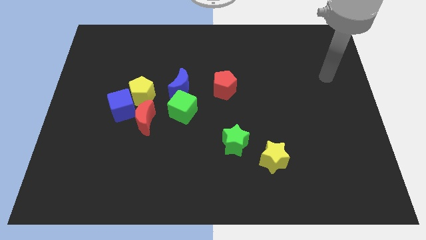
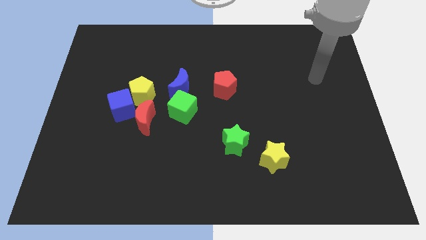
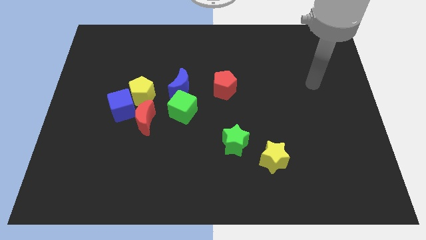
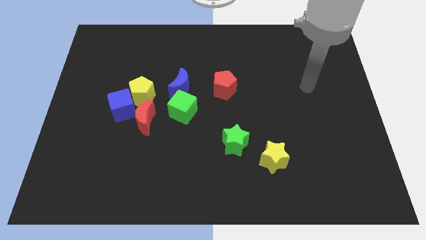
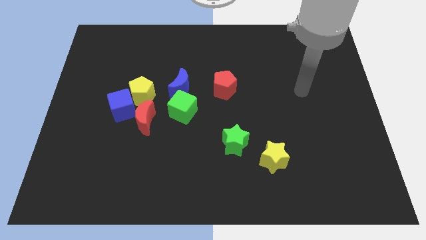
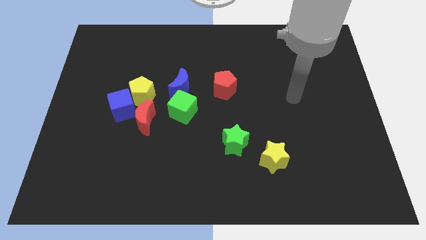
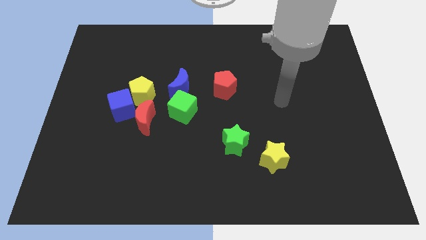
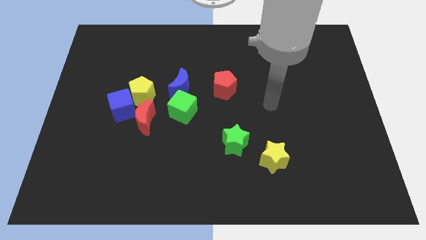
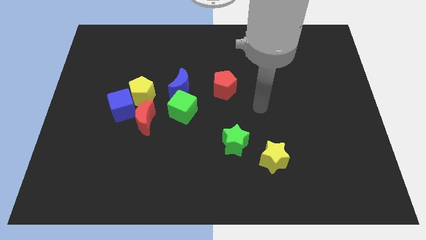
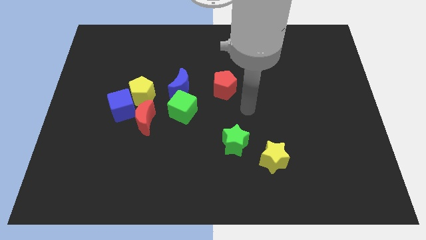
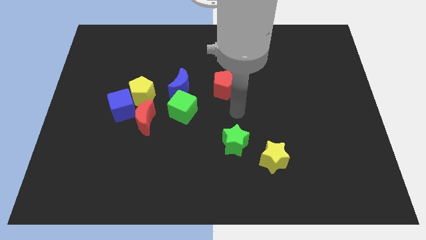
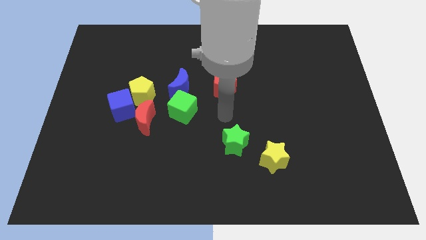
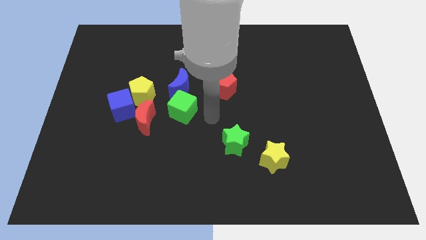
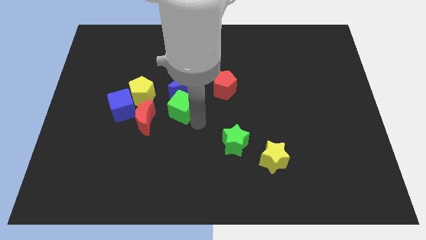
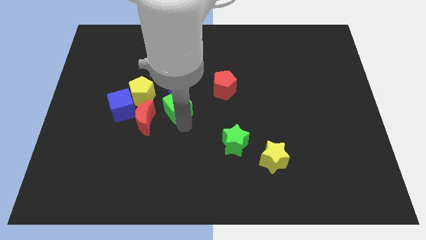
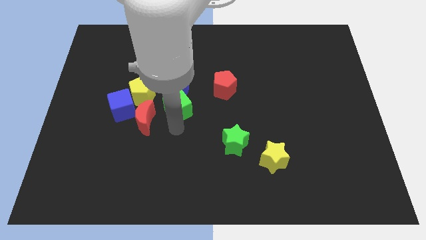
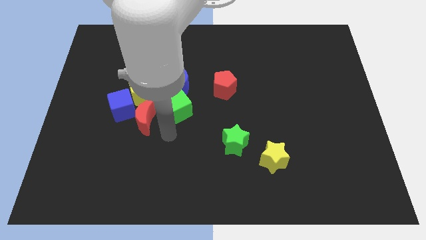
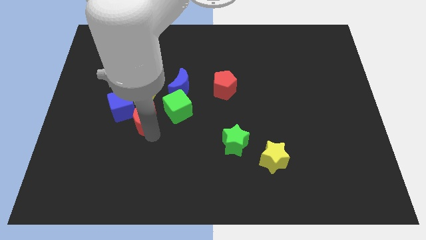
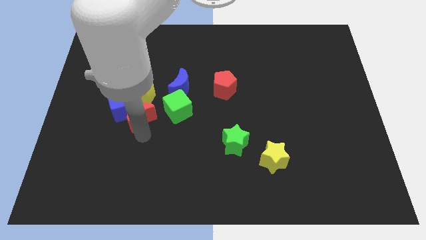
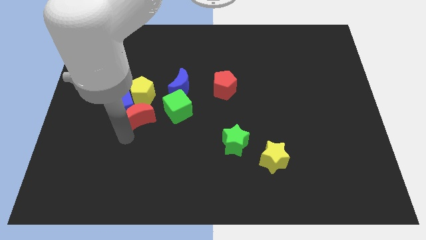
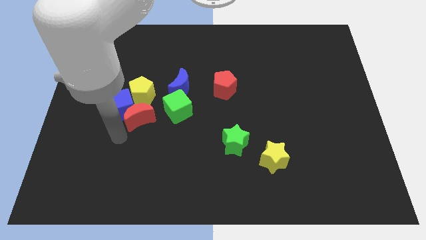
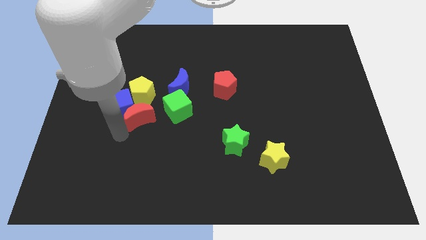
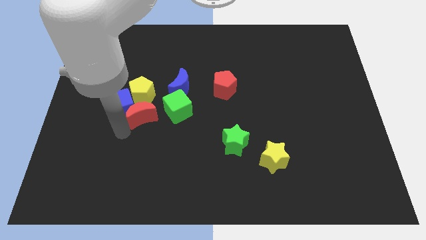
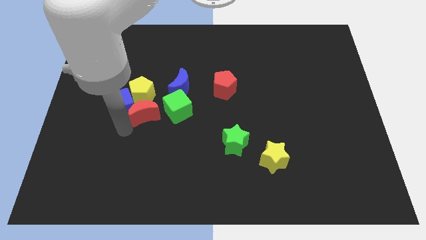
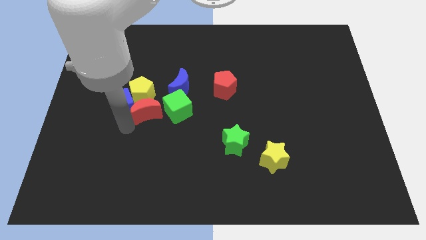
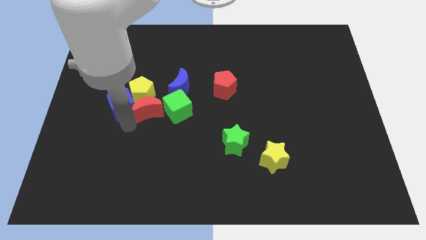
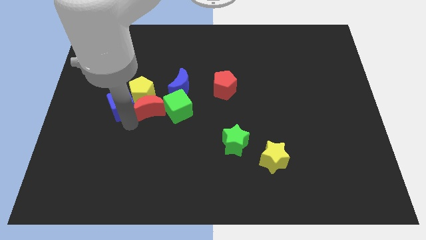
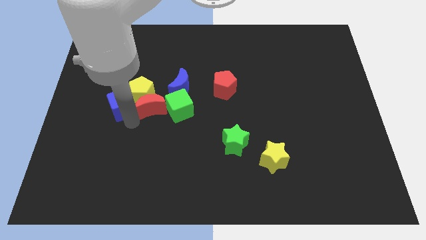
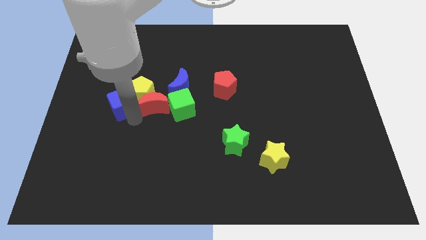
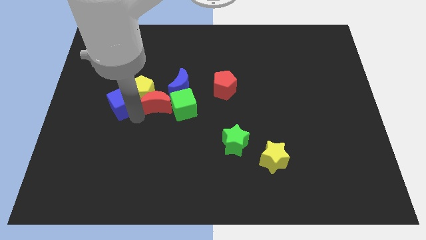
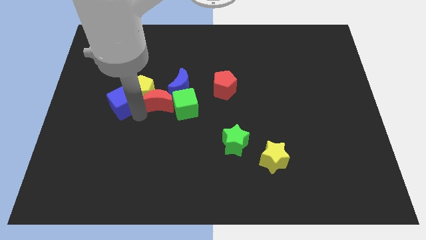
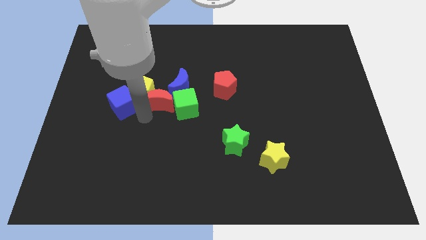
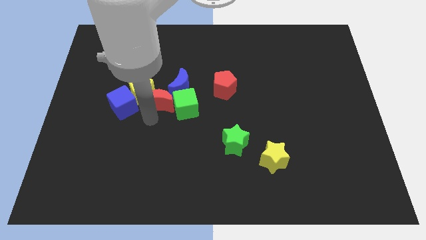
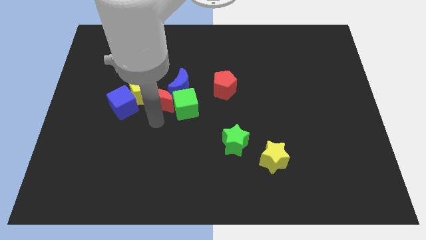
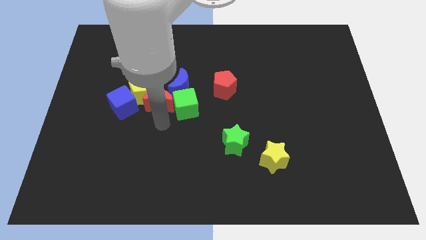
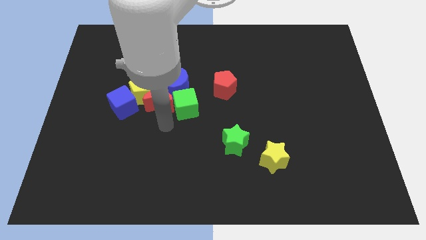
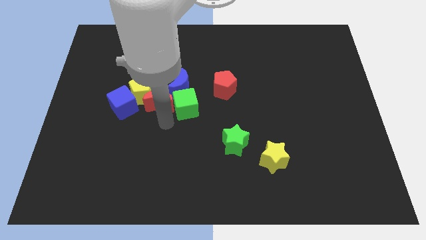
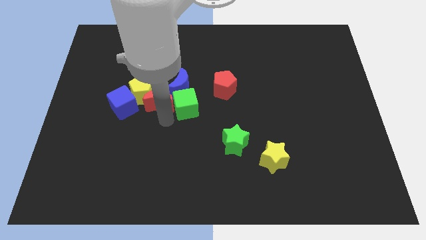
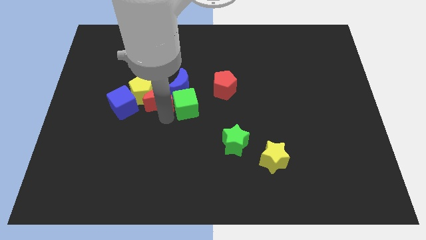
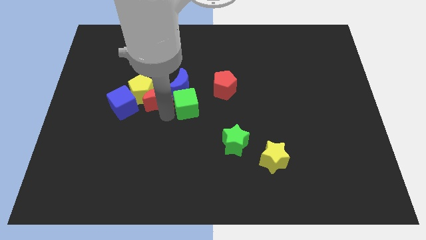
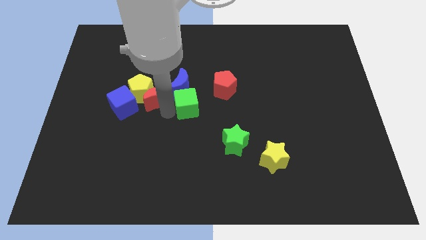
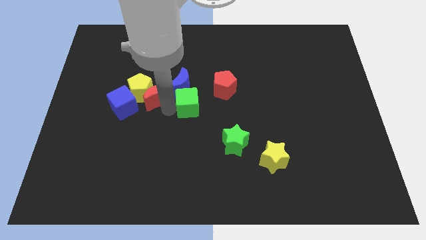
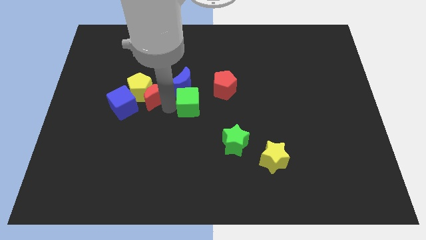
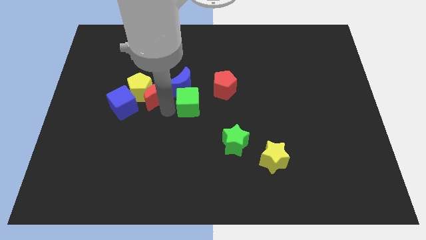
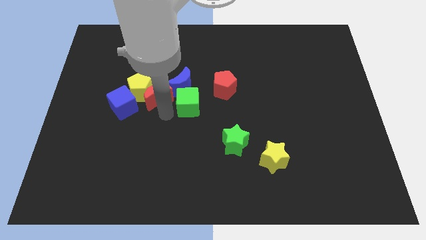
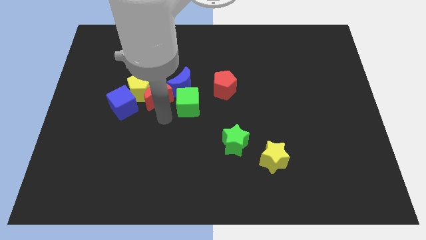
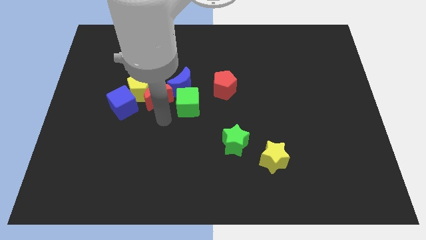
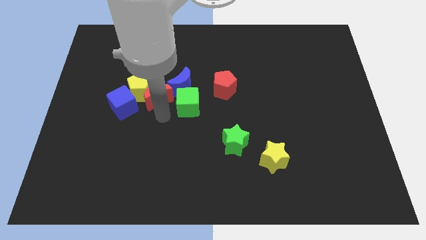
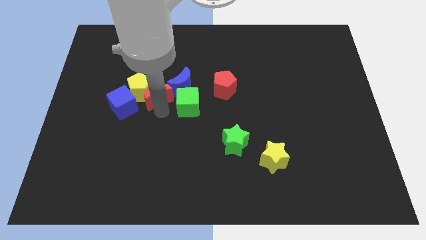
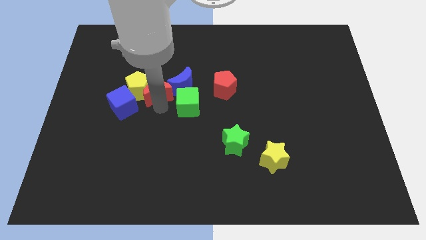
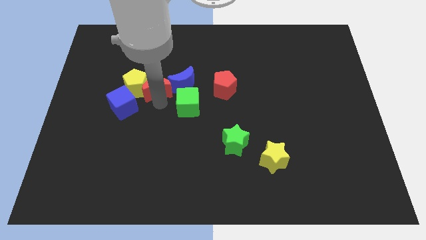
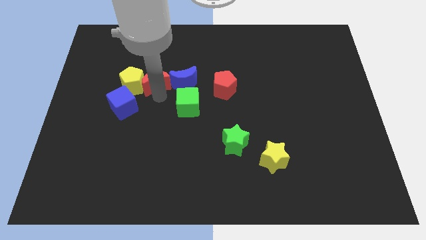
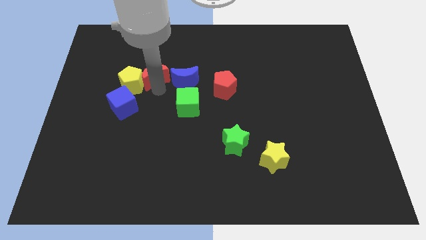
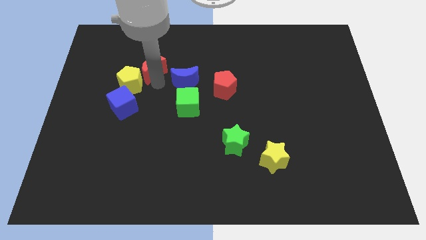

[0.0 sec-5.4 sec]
slide the red moon to the top side of the yellow pentagon

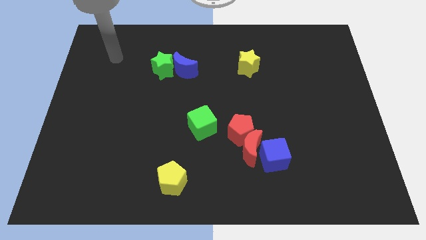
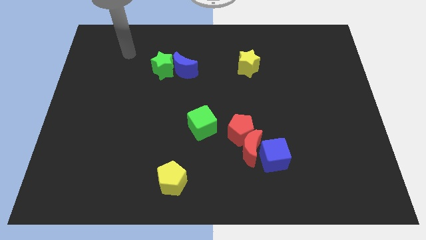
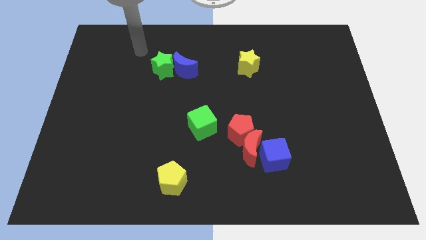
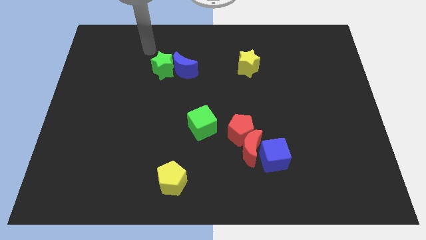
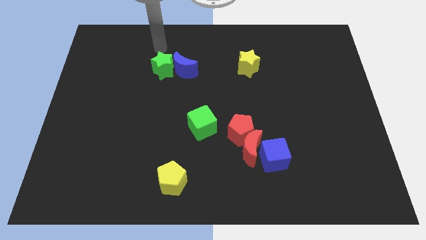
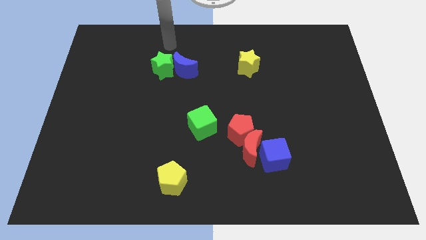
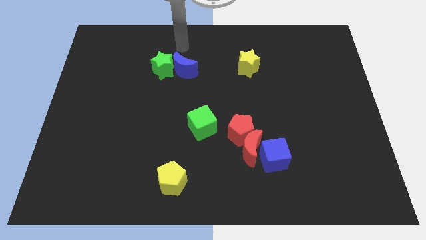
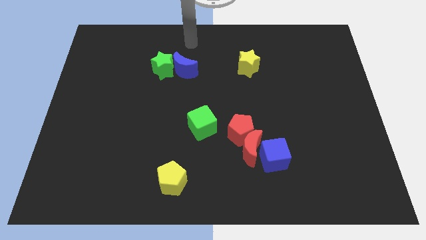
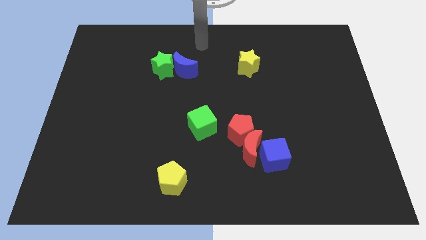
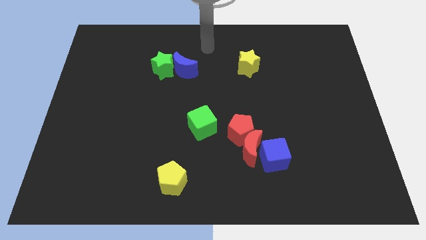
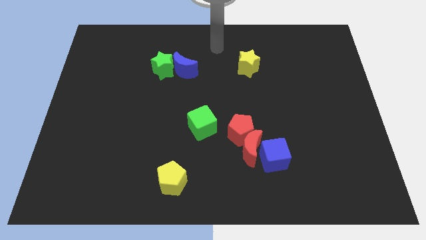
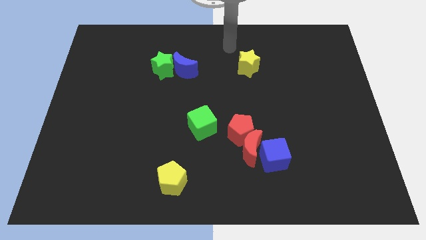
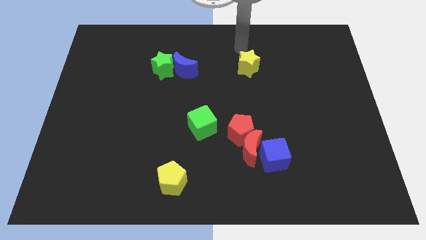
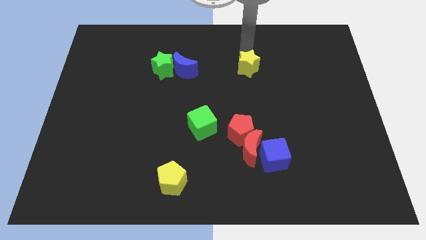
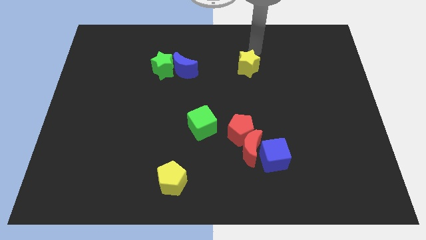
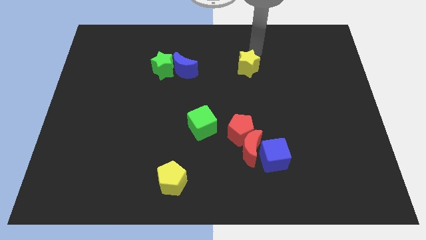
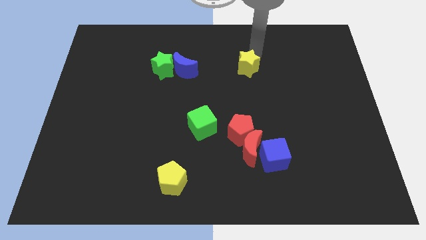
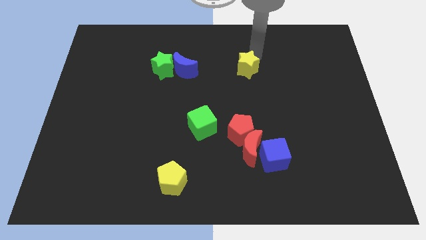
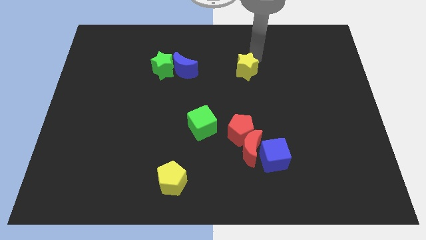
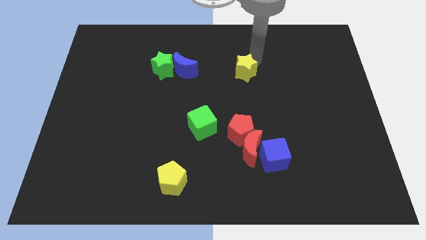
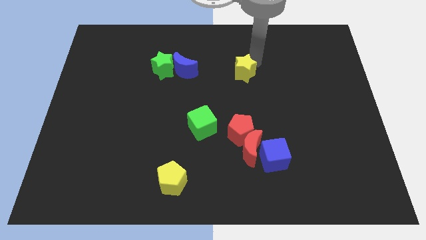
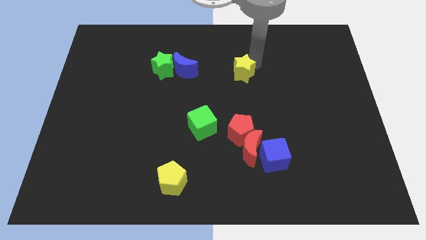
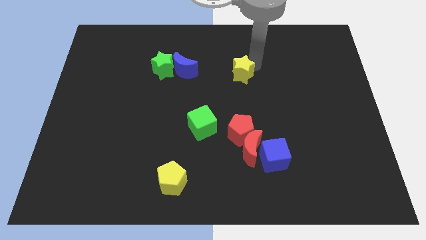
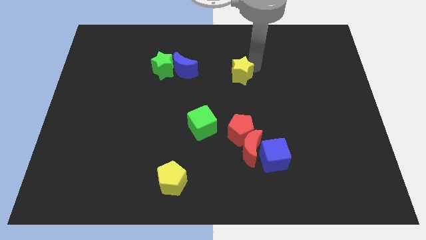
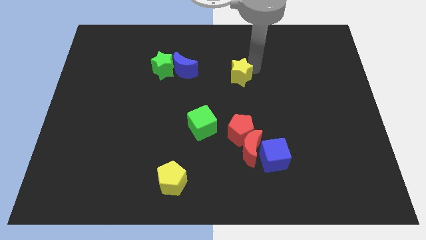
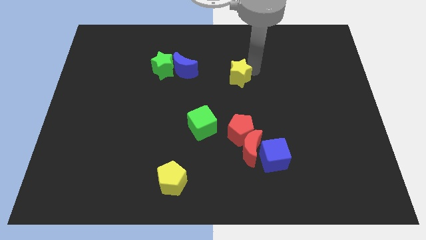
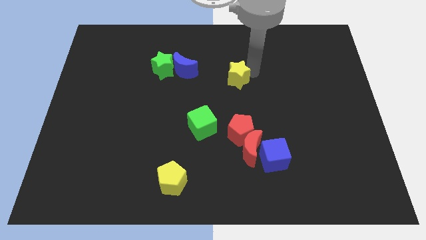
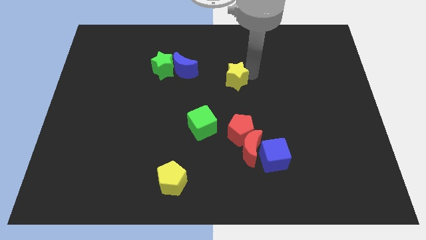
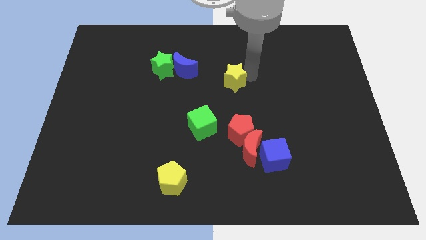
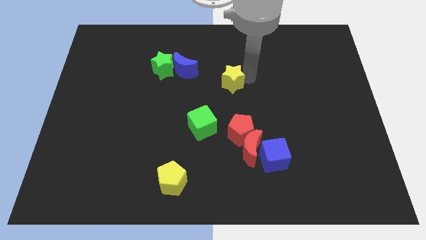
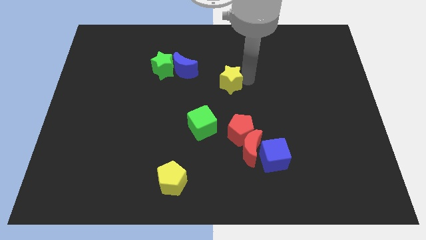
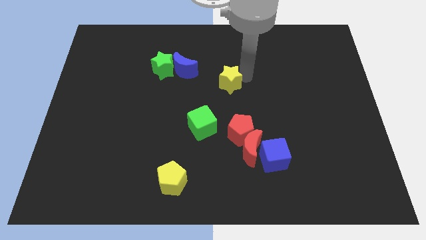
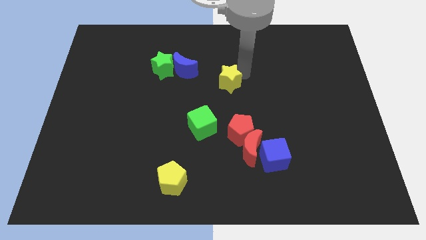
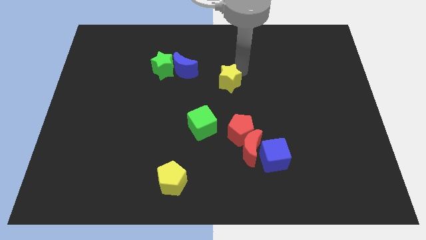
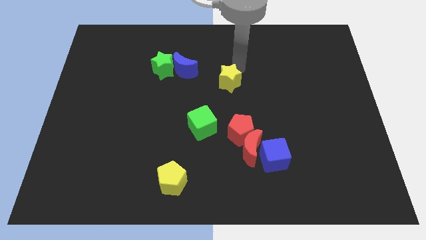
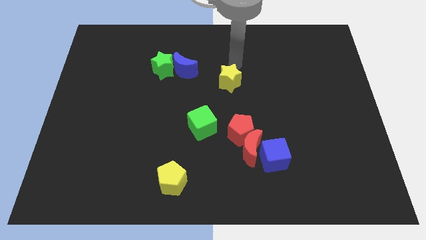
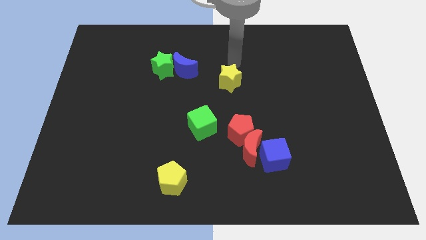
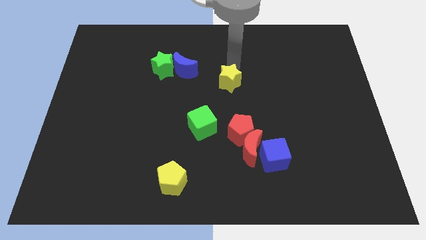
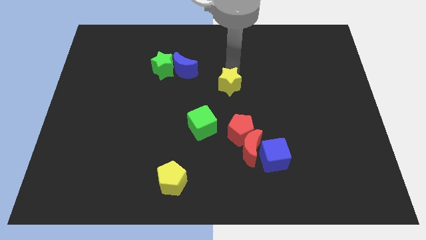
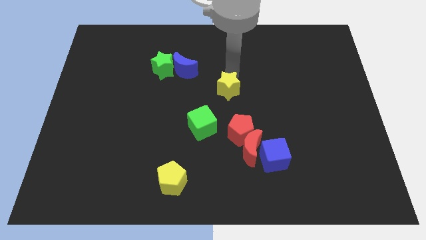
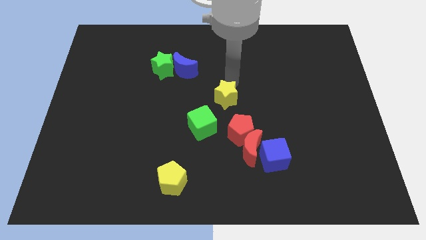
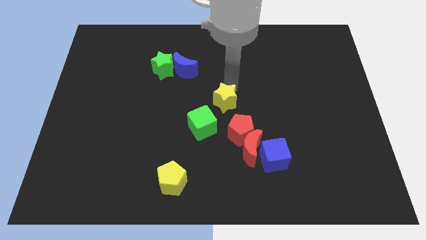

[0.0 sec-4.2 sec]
push the yellow star to the top left side of the red pentagon
